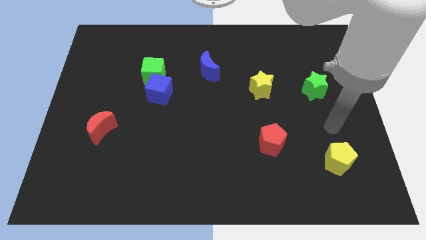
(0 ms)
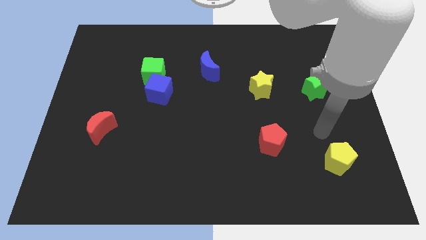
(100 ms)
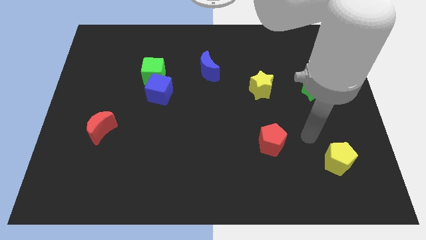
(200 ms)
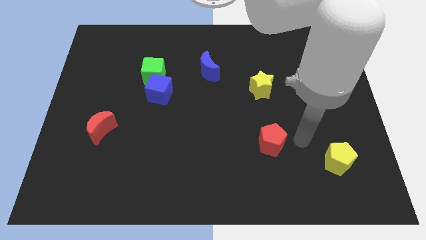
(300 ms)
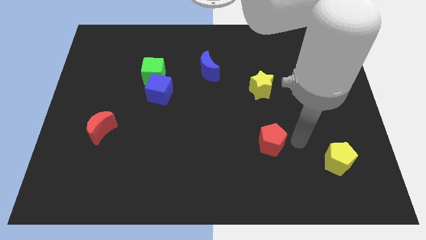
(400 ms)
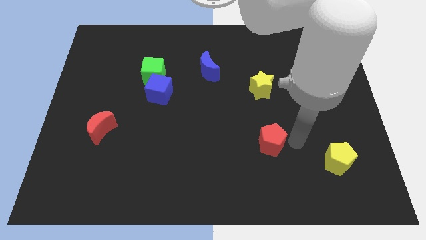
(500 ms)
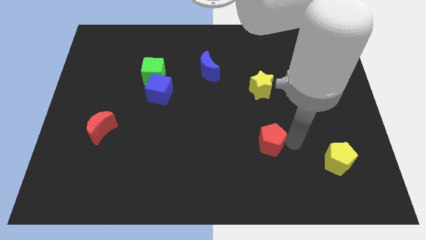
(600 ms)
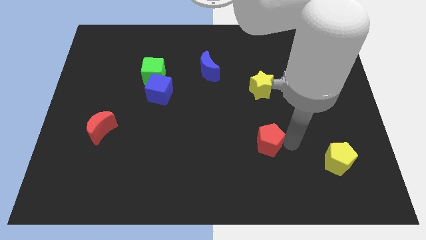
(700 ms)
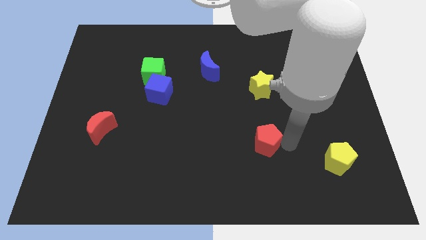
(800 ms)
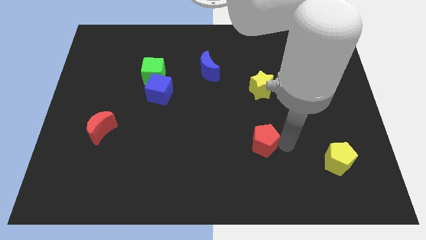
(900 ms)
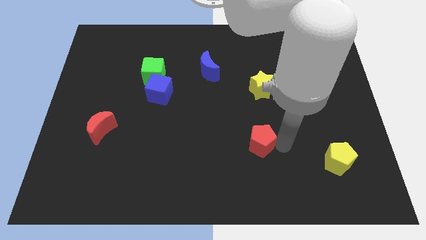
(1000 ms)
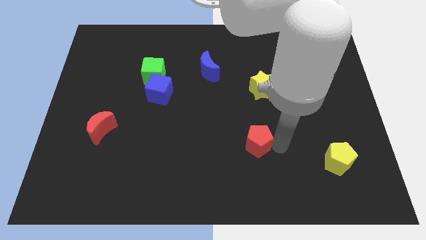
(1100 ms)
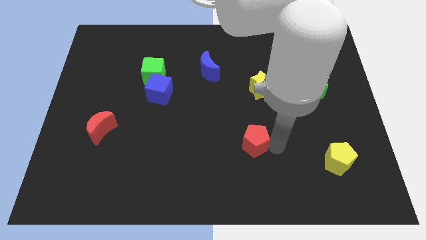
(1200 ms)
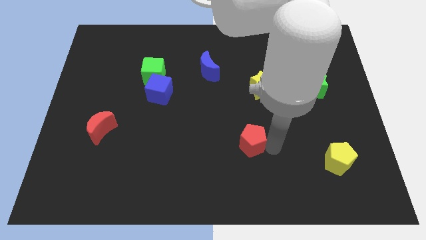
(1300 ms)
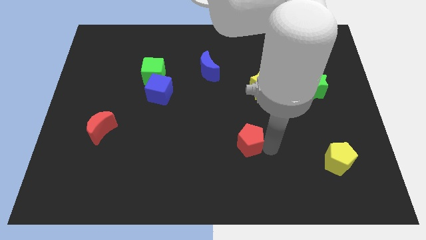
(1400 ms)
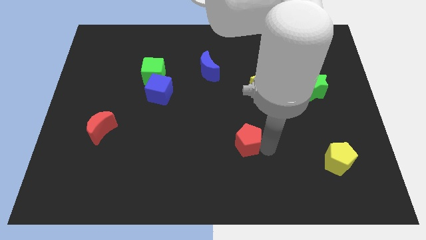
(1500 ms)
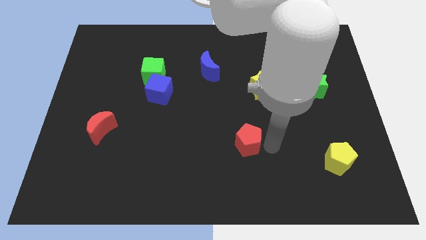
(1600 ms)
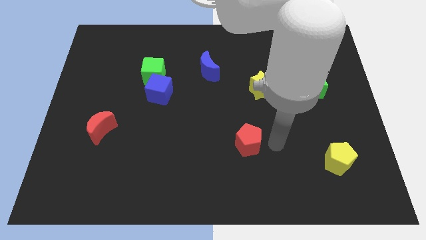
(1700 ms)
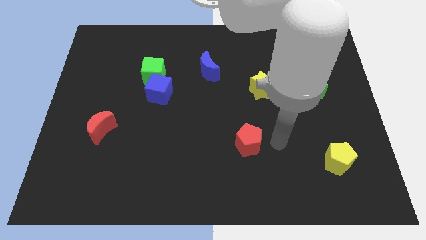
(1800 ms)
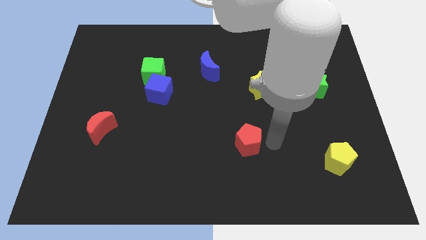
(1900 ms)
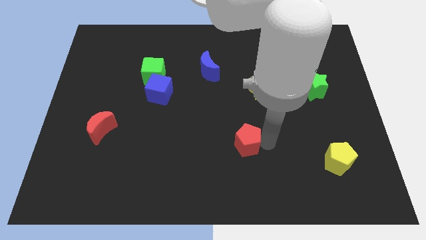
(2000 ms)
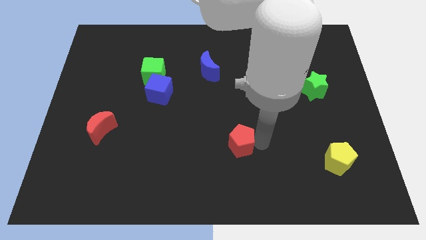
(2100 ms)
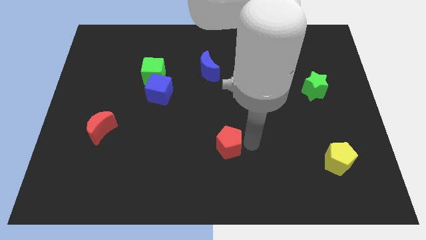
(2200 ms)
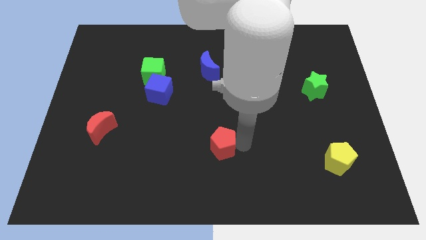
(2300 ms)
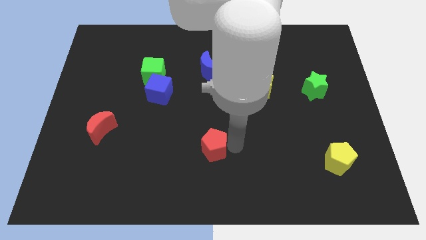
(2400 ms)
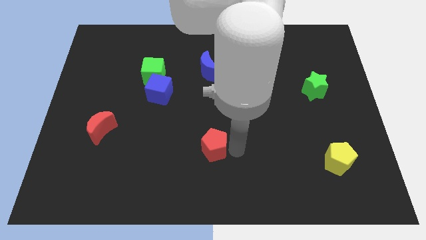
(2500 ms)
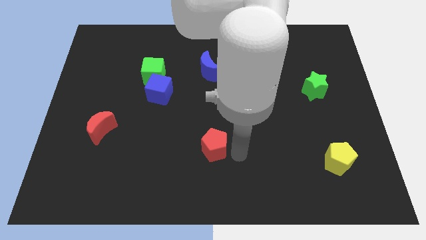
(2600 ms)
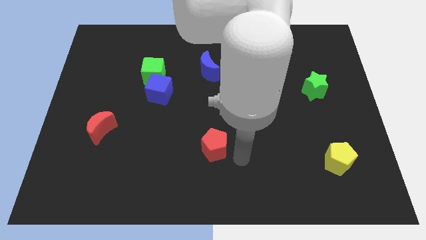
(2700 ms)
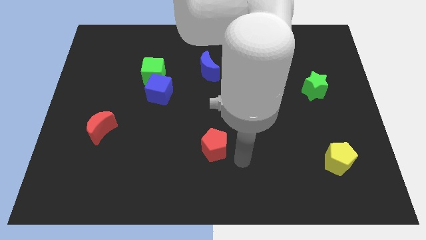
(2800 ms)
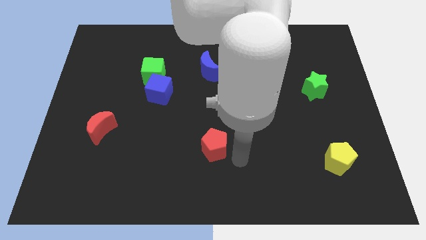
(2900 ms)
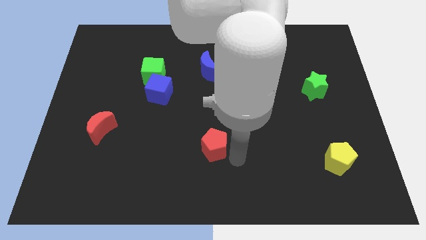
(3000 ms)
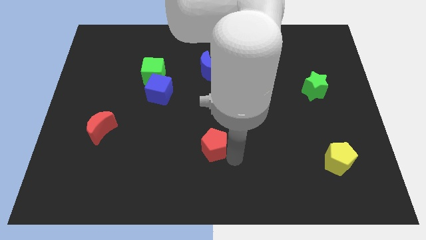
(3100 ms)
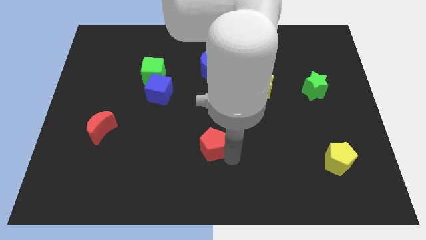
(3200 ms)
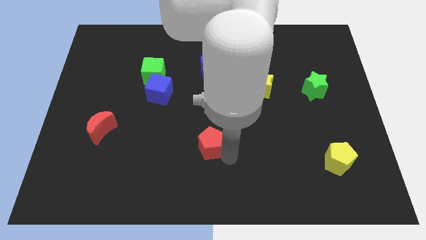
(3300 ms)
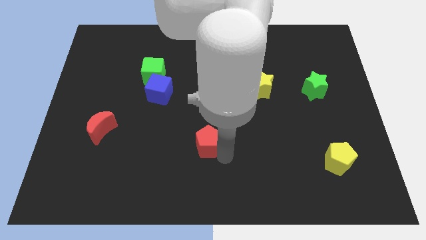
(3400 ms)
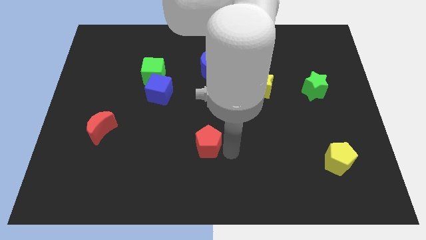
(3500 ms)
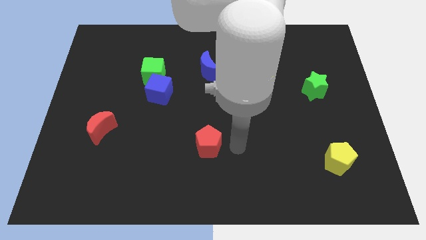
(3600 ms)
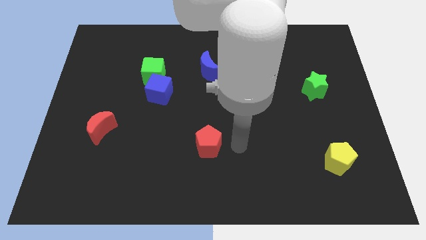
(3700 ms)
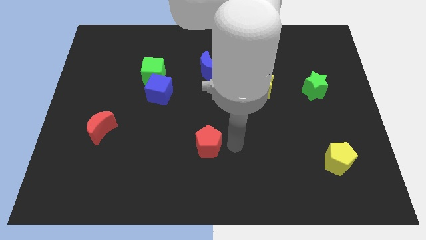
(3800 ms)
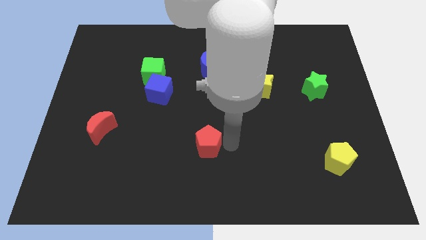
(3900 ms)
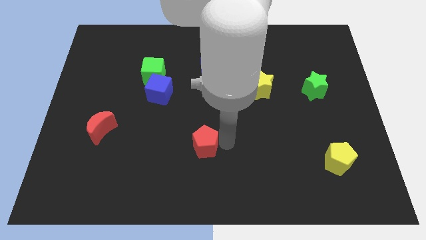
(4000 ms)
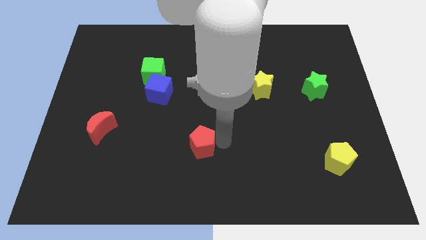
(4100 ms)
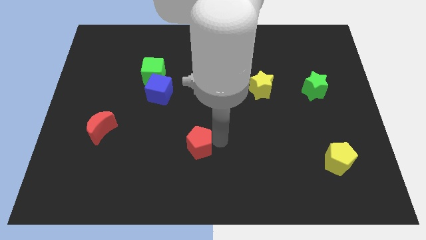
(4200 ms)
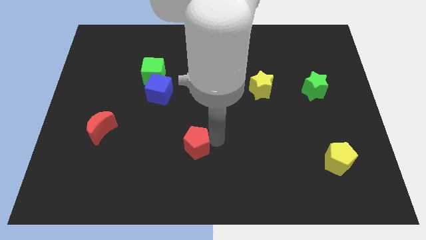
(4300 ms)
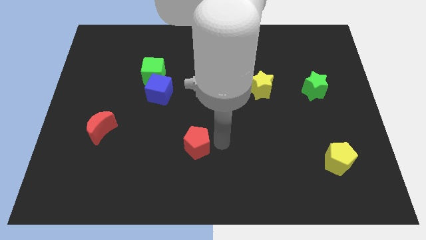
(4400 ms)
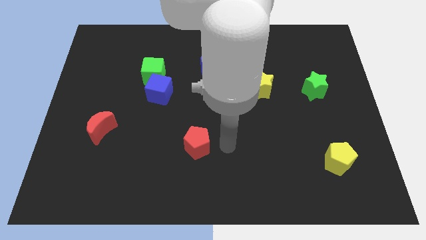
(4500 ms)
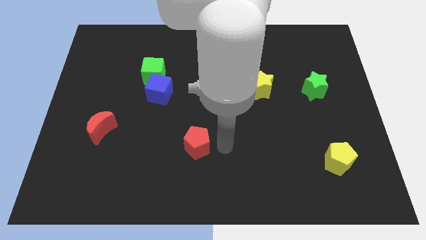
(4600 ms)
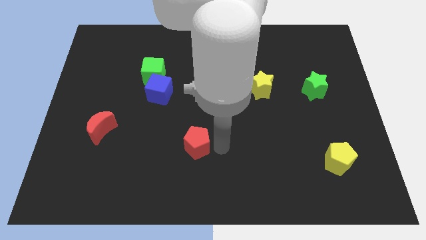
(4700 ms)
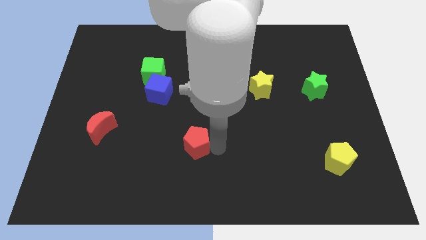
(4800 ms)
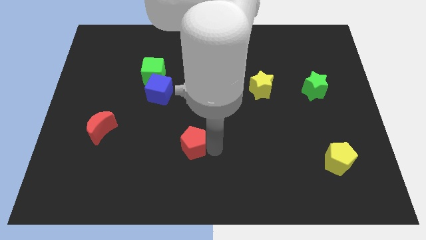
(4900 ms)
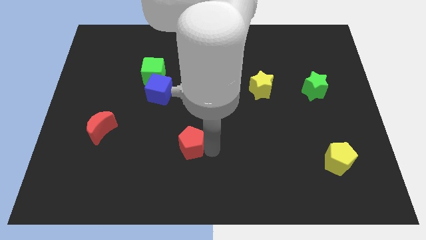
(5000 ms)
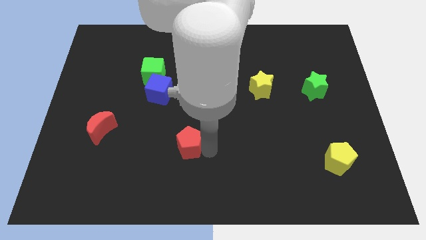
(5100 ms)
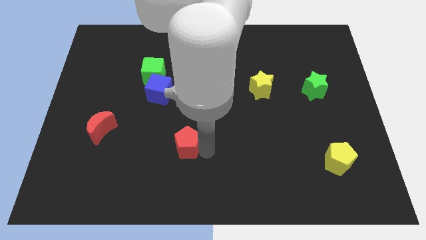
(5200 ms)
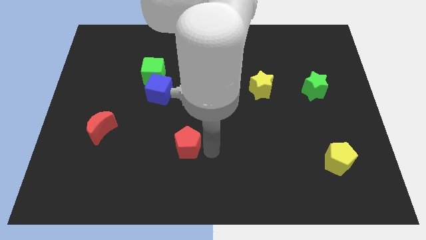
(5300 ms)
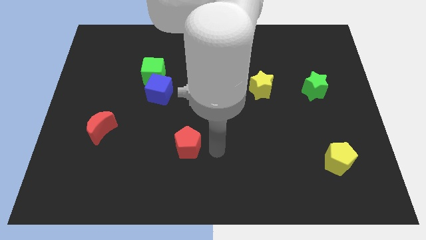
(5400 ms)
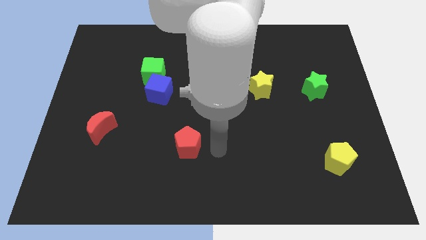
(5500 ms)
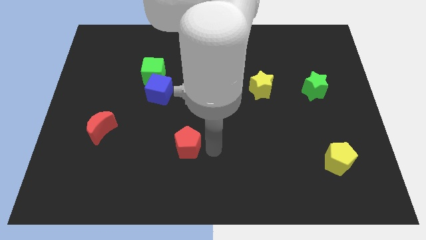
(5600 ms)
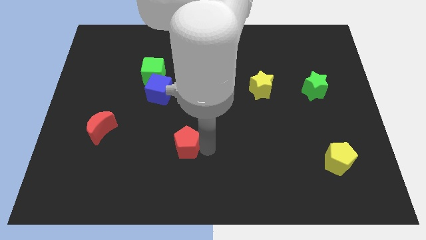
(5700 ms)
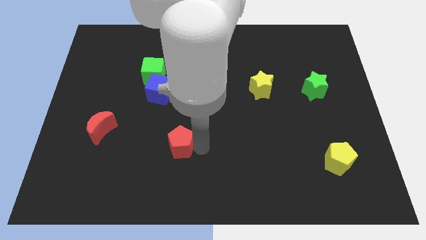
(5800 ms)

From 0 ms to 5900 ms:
move the red pentagon to the left

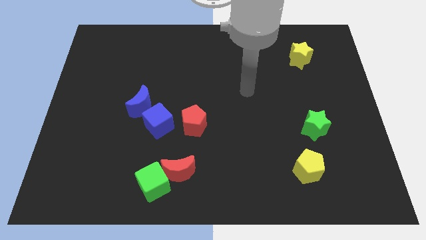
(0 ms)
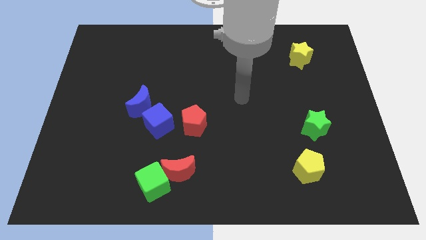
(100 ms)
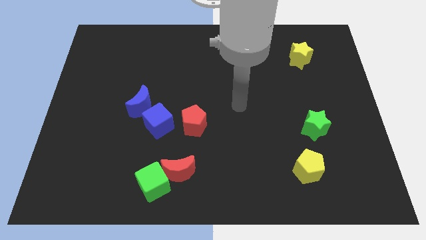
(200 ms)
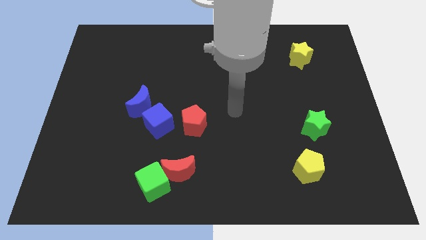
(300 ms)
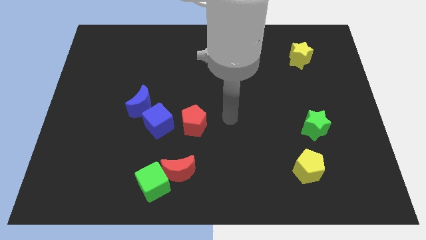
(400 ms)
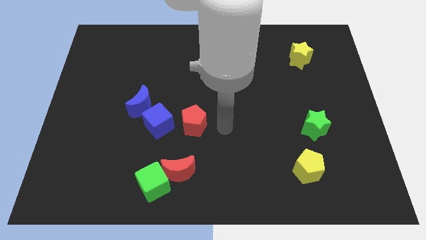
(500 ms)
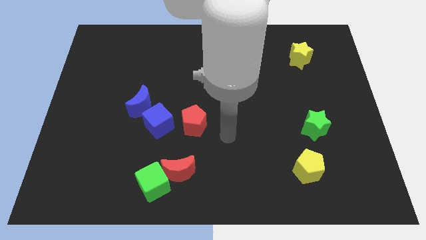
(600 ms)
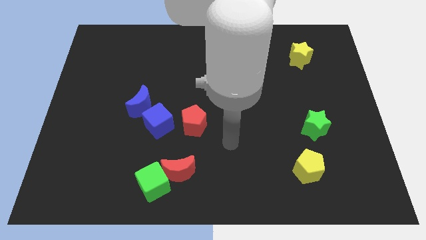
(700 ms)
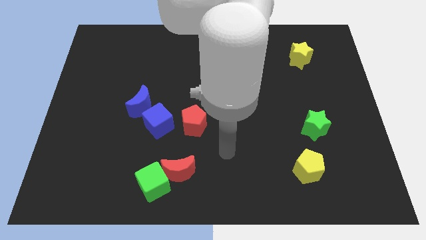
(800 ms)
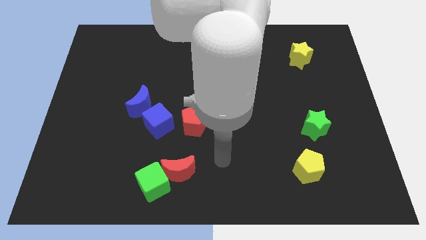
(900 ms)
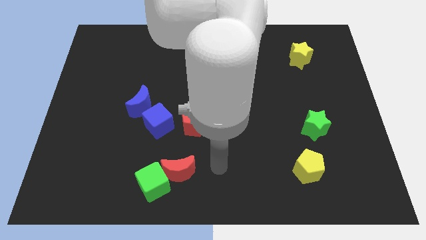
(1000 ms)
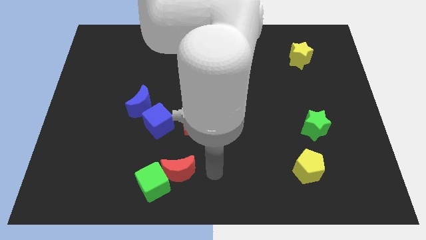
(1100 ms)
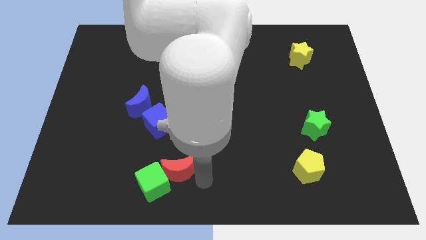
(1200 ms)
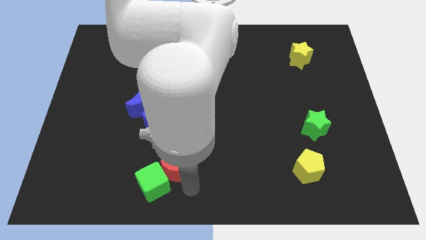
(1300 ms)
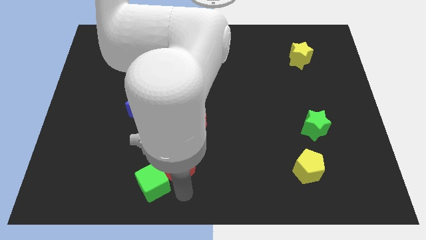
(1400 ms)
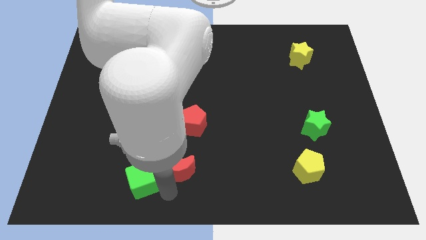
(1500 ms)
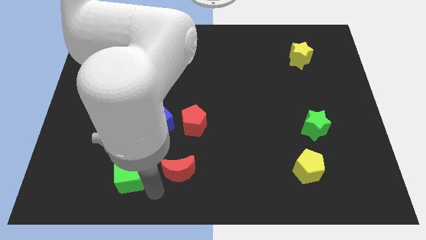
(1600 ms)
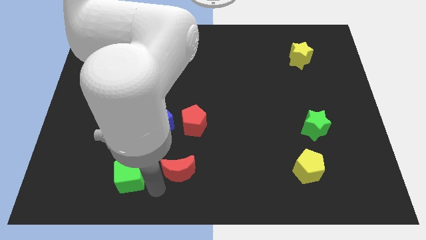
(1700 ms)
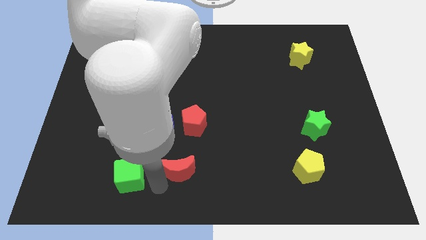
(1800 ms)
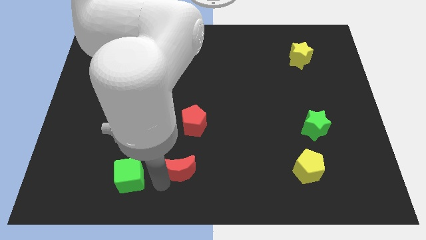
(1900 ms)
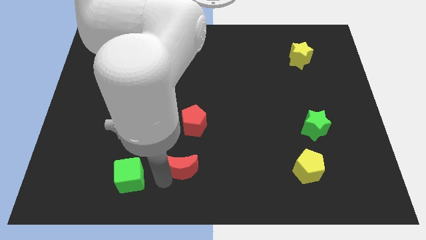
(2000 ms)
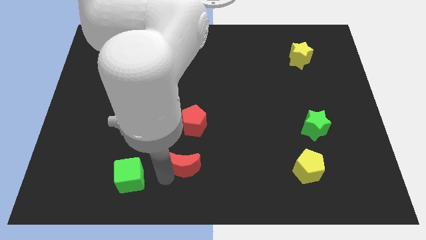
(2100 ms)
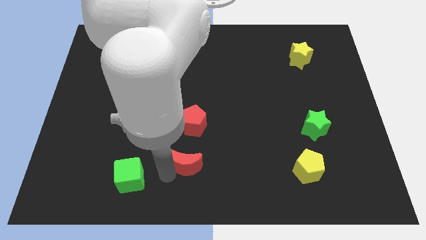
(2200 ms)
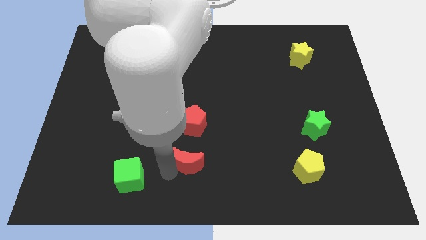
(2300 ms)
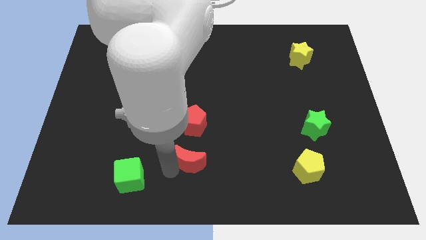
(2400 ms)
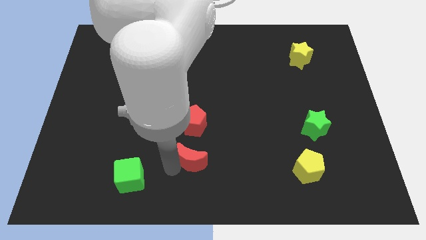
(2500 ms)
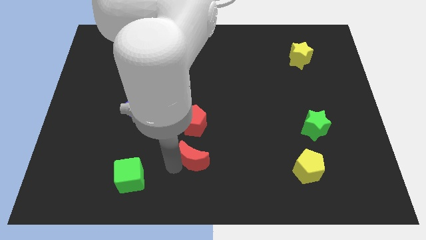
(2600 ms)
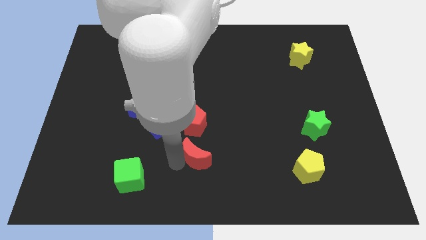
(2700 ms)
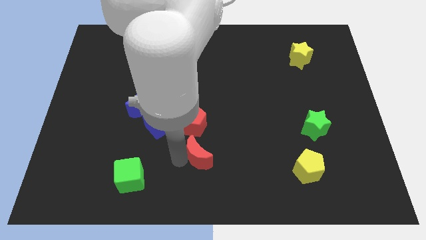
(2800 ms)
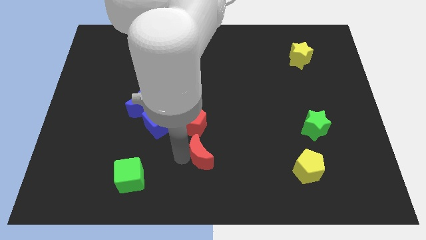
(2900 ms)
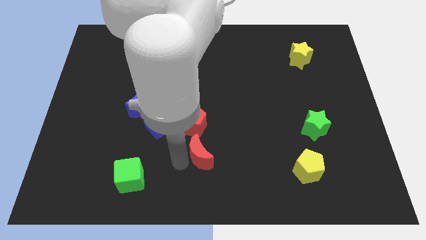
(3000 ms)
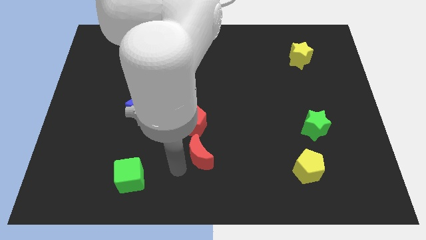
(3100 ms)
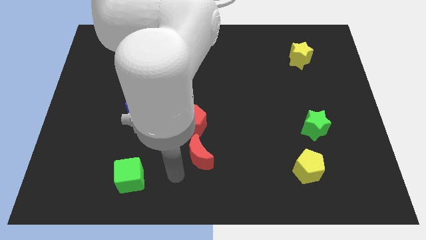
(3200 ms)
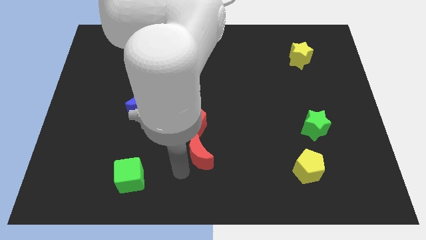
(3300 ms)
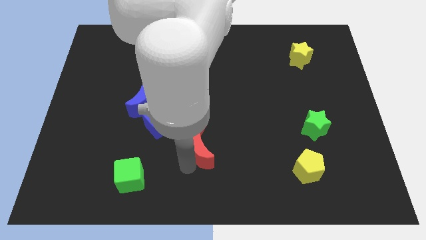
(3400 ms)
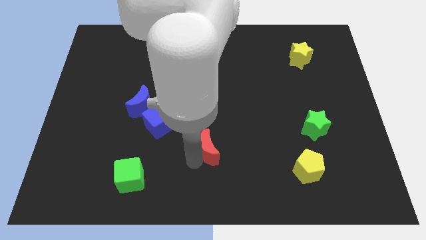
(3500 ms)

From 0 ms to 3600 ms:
push the red moon a little diagonally upwards and to the right
